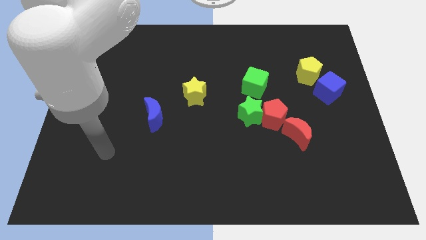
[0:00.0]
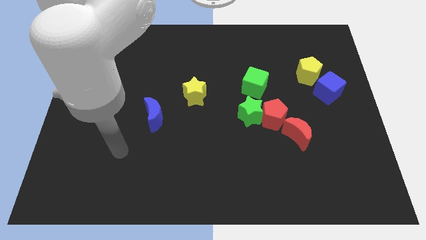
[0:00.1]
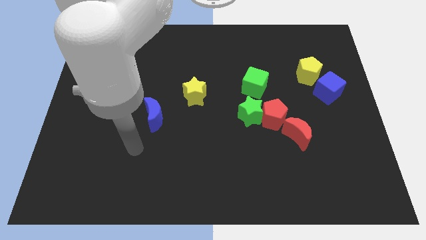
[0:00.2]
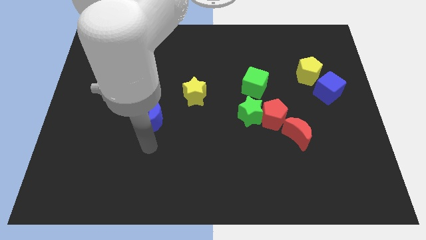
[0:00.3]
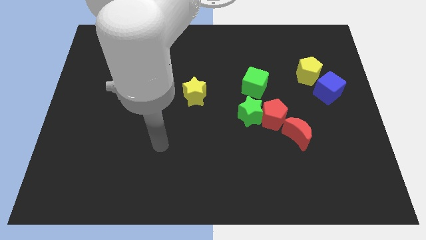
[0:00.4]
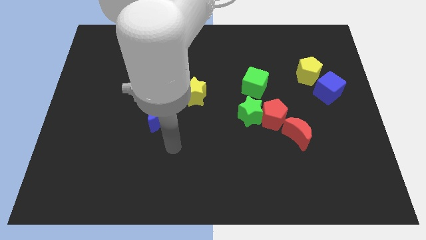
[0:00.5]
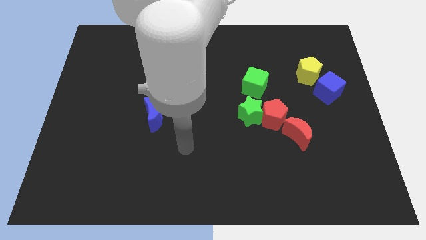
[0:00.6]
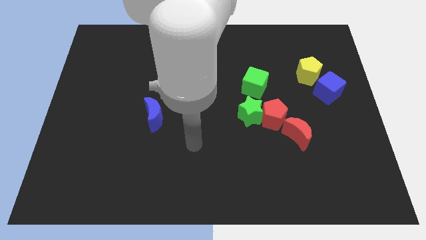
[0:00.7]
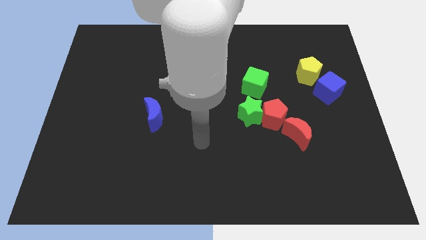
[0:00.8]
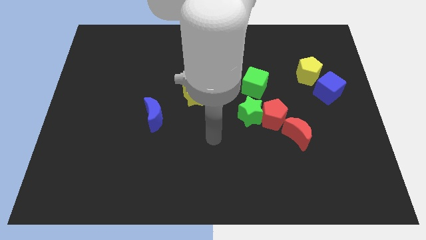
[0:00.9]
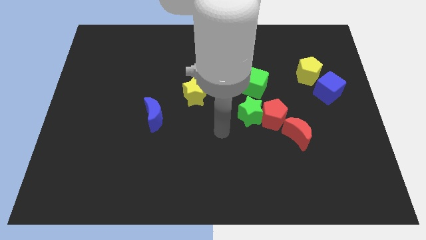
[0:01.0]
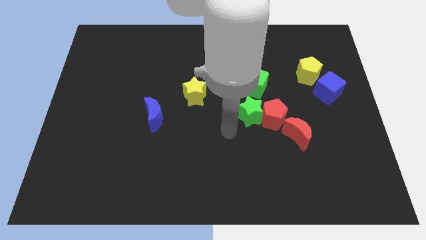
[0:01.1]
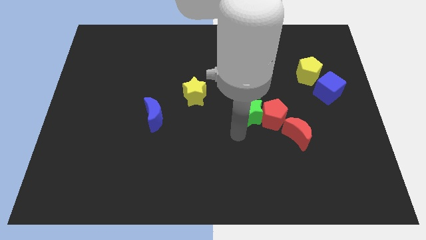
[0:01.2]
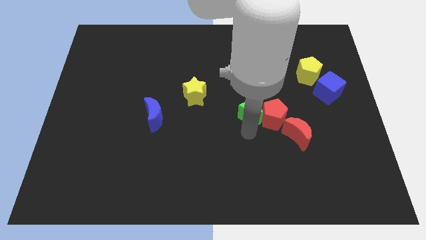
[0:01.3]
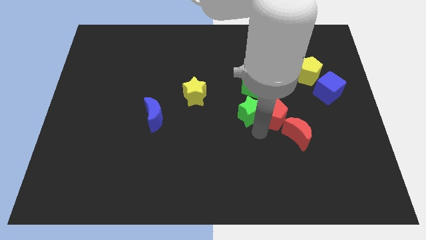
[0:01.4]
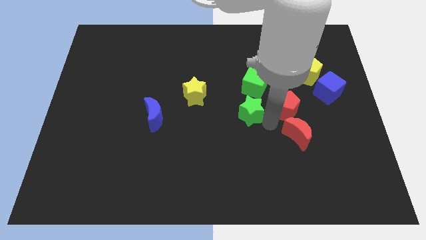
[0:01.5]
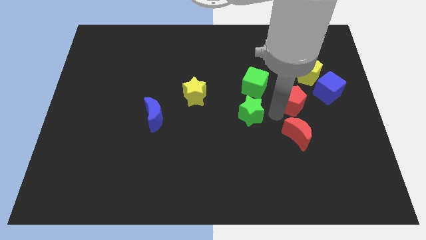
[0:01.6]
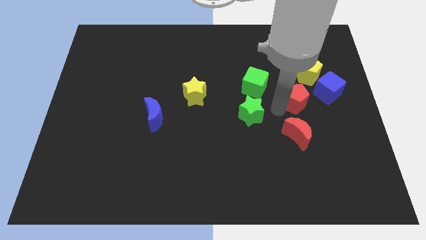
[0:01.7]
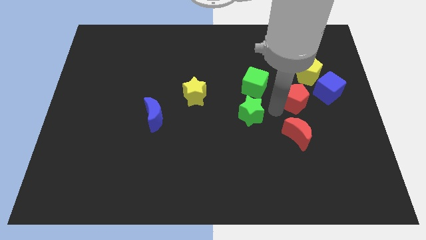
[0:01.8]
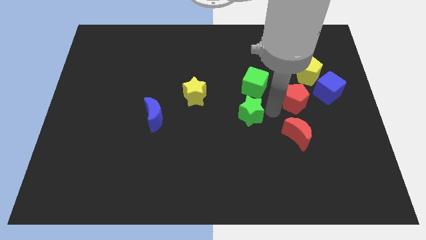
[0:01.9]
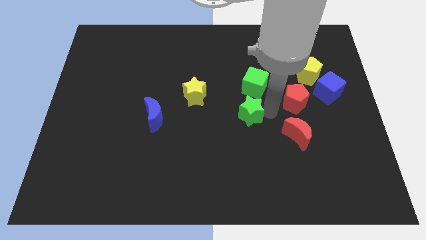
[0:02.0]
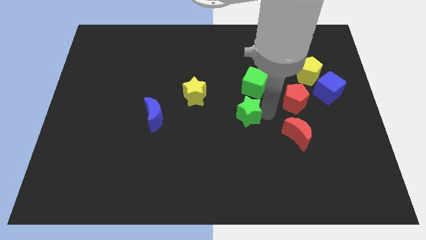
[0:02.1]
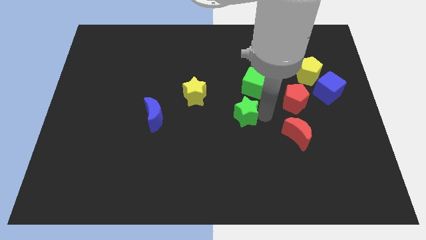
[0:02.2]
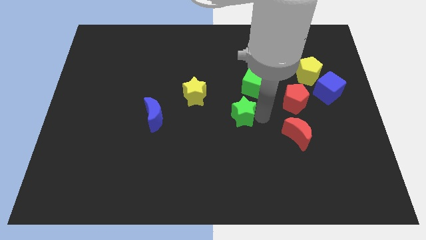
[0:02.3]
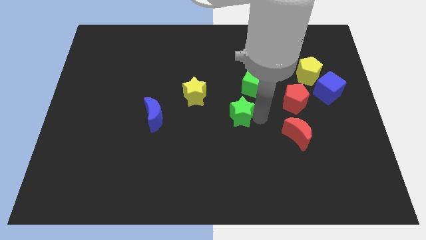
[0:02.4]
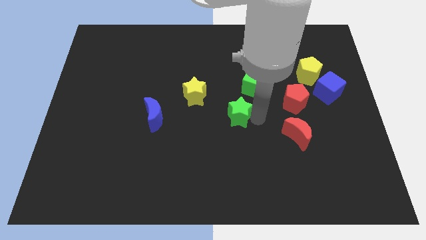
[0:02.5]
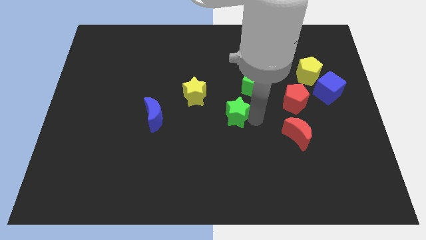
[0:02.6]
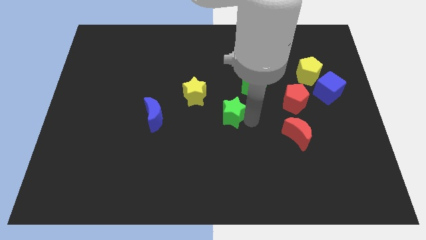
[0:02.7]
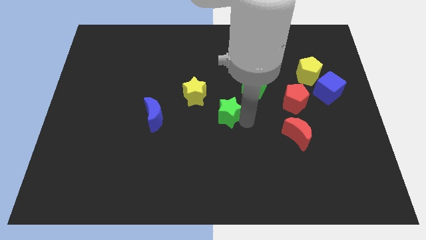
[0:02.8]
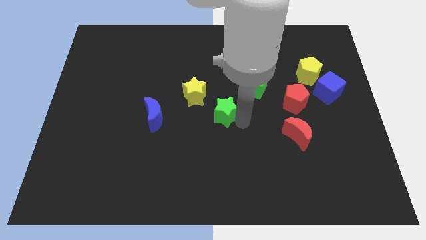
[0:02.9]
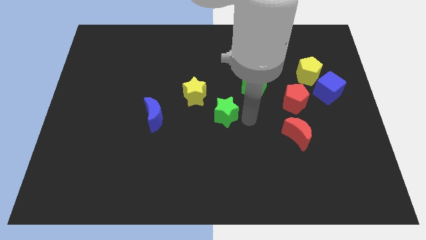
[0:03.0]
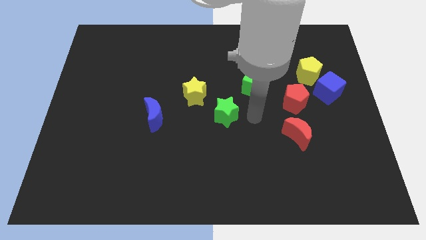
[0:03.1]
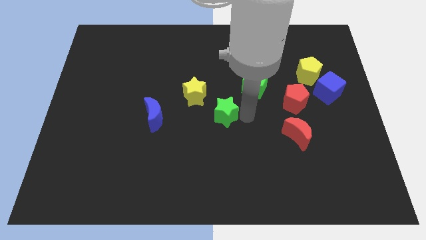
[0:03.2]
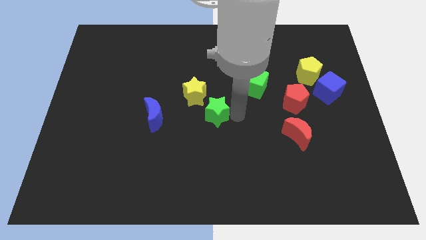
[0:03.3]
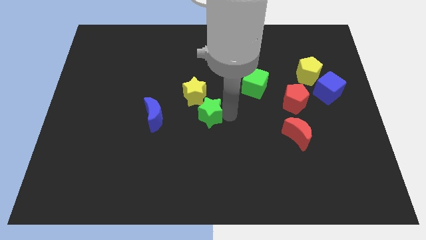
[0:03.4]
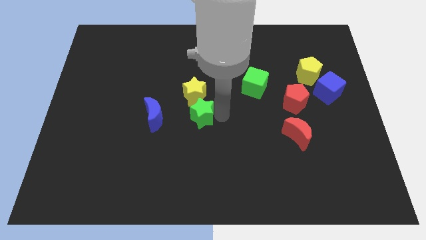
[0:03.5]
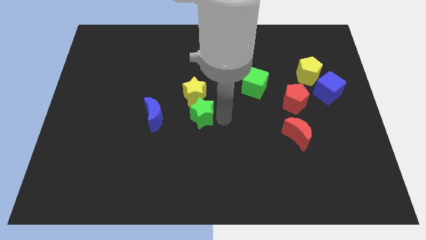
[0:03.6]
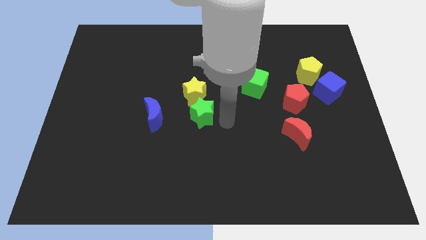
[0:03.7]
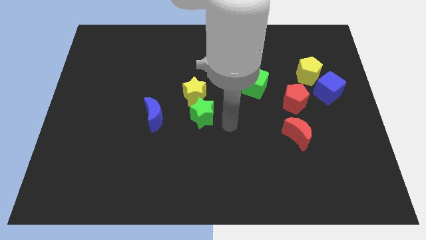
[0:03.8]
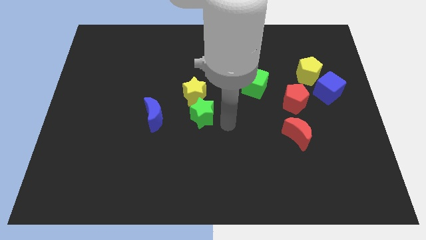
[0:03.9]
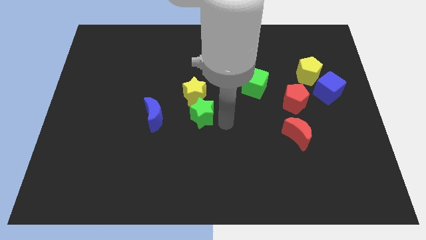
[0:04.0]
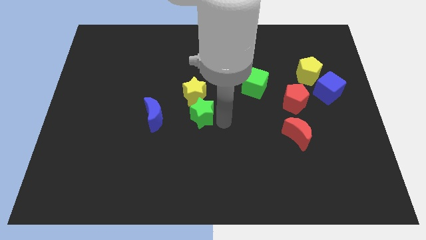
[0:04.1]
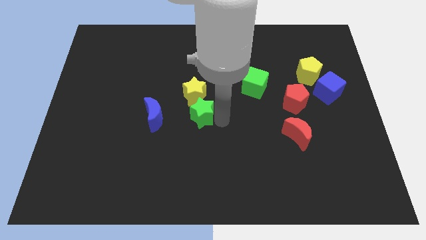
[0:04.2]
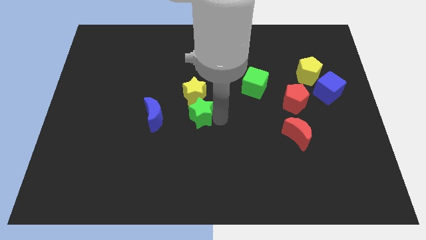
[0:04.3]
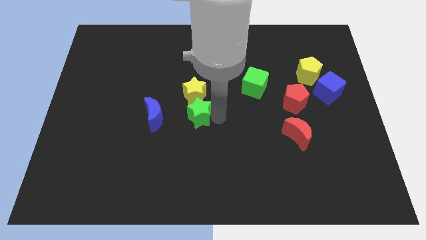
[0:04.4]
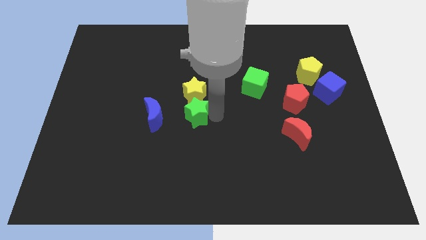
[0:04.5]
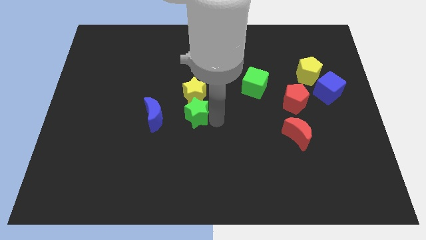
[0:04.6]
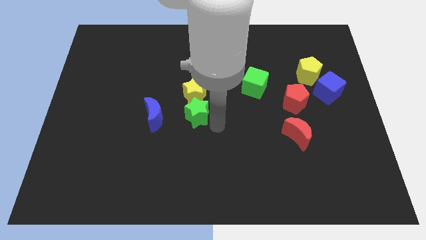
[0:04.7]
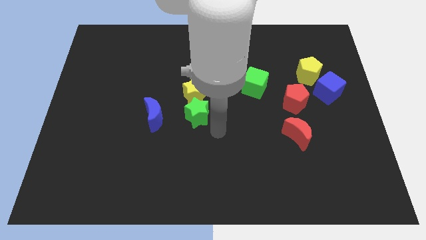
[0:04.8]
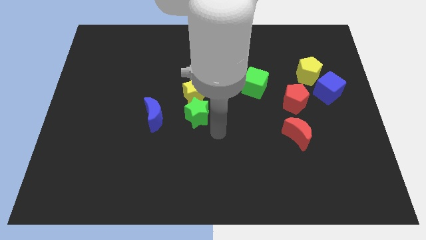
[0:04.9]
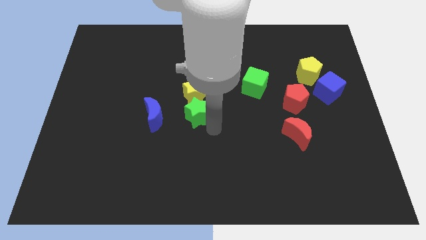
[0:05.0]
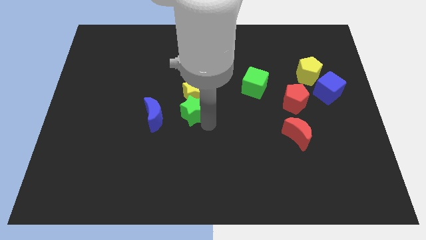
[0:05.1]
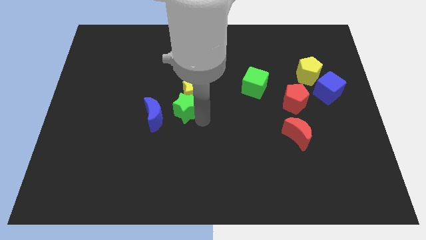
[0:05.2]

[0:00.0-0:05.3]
slide the green star diagonally up and to the right of the blue moon

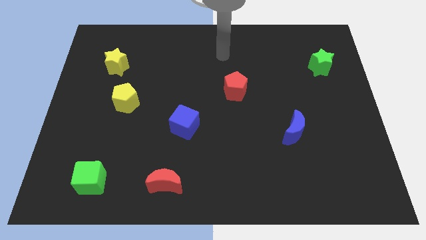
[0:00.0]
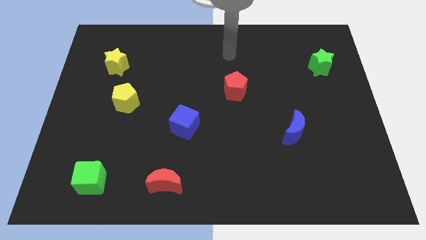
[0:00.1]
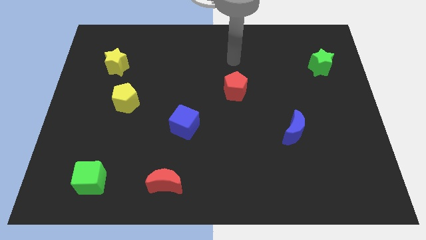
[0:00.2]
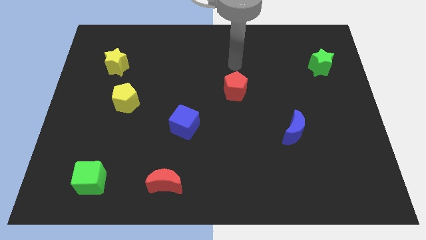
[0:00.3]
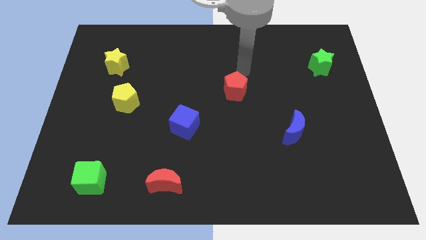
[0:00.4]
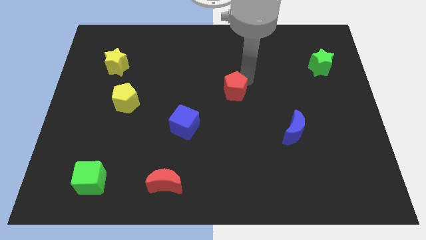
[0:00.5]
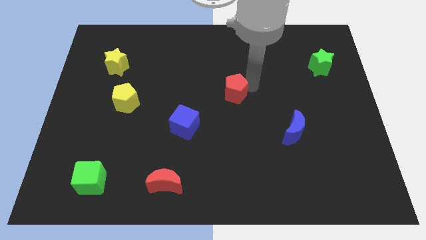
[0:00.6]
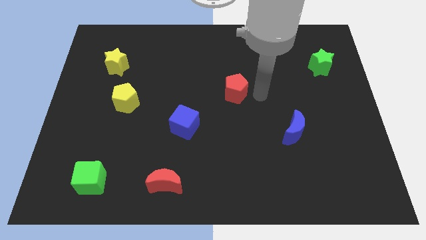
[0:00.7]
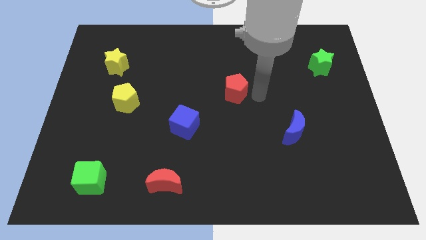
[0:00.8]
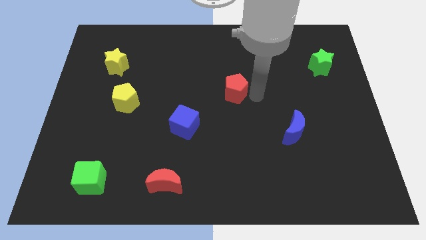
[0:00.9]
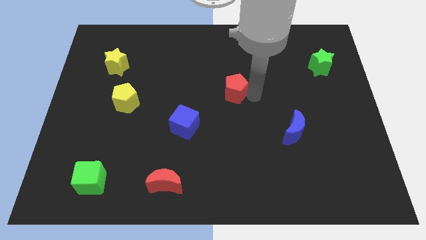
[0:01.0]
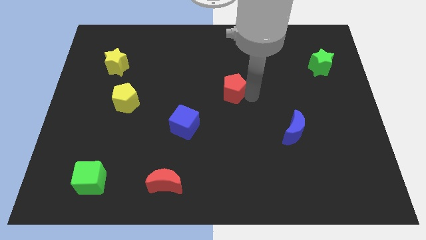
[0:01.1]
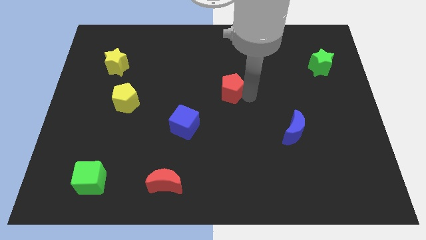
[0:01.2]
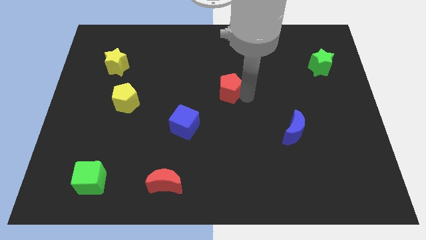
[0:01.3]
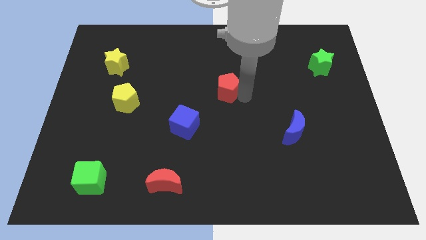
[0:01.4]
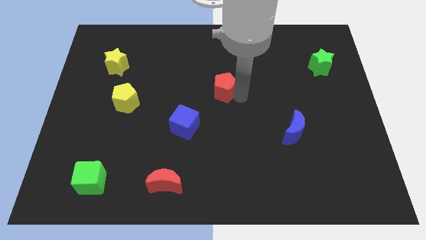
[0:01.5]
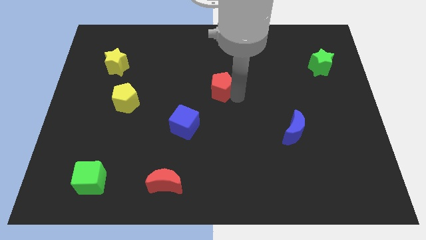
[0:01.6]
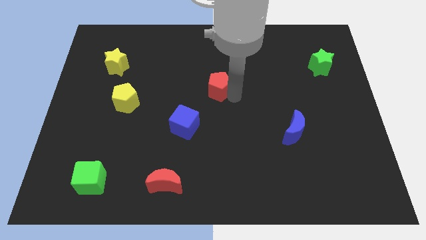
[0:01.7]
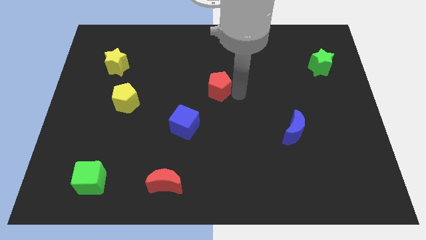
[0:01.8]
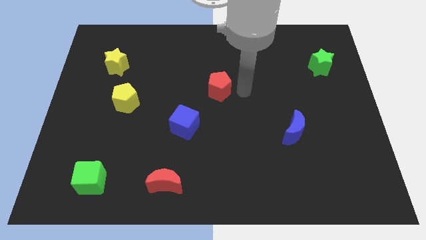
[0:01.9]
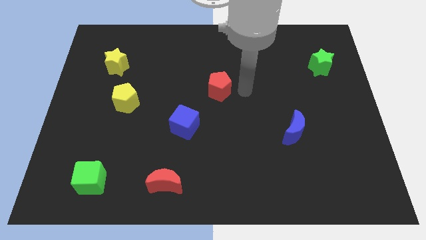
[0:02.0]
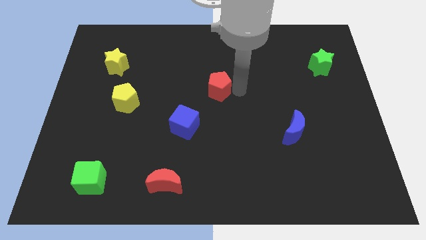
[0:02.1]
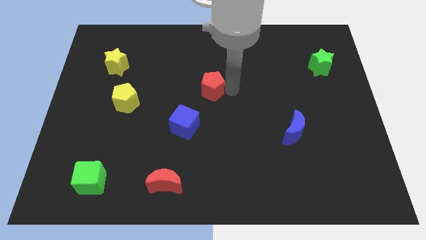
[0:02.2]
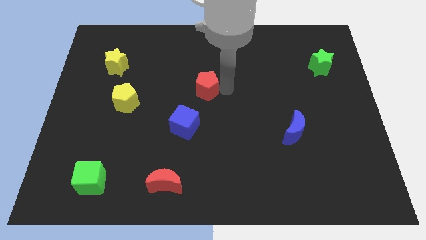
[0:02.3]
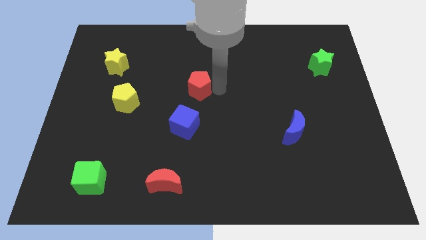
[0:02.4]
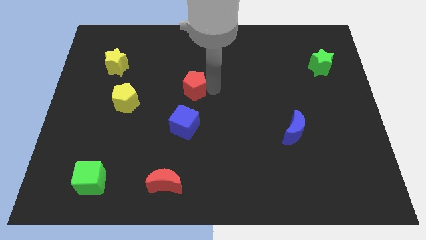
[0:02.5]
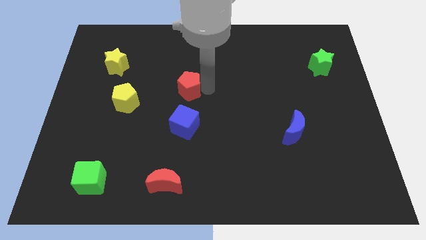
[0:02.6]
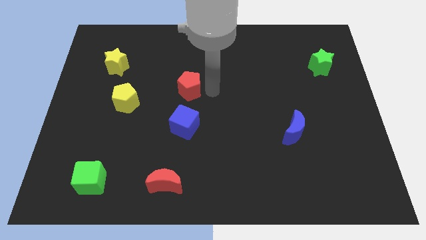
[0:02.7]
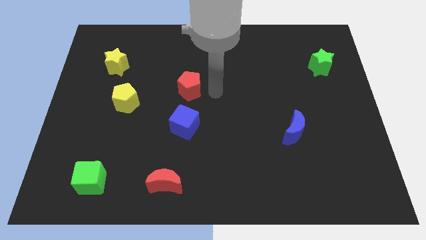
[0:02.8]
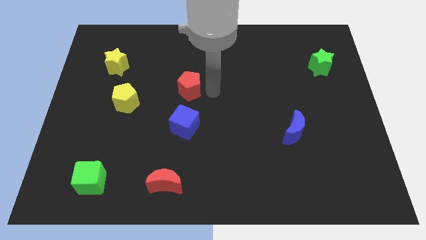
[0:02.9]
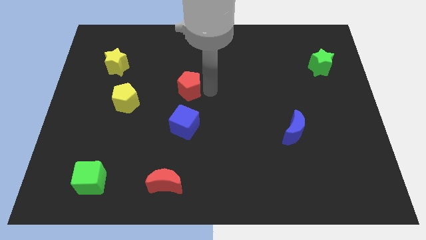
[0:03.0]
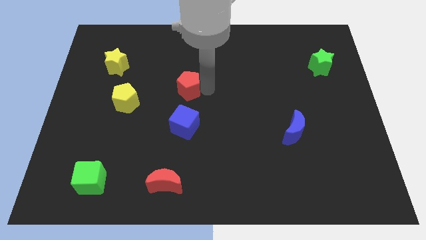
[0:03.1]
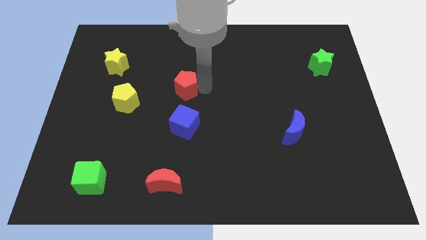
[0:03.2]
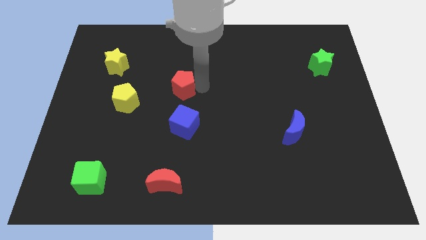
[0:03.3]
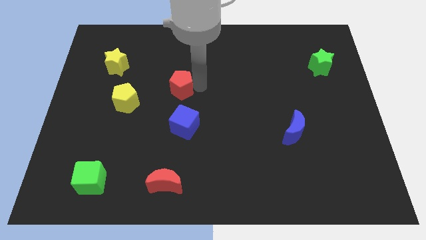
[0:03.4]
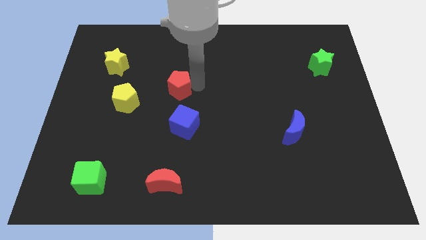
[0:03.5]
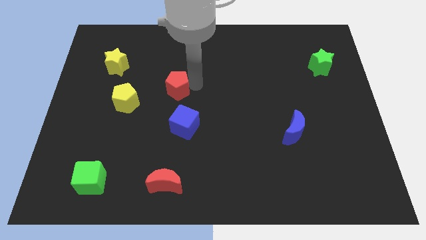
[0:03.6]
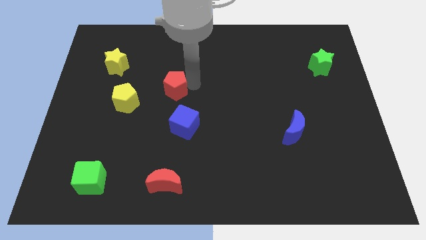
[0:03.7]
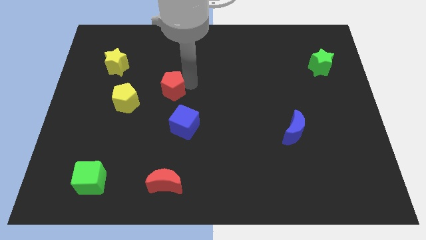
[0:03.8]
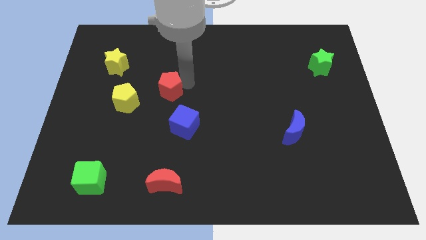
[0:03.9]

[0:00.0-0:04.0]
slide the red pentagon to the top right side of the yellow pentagon
